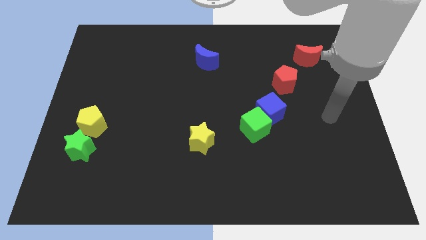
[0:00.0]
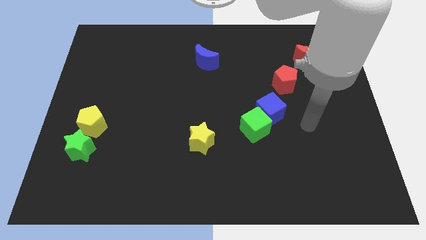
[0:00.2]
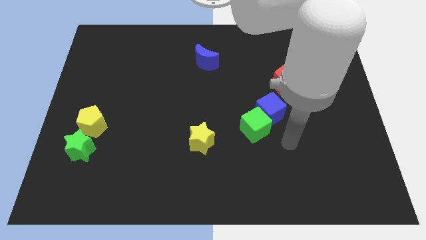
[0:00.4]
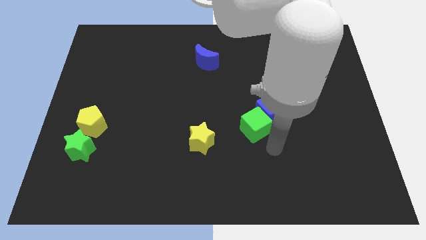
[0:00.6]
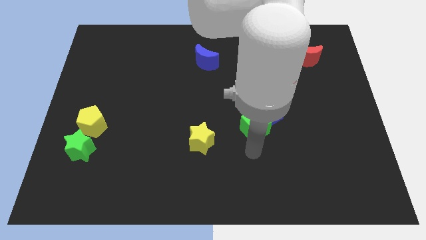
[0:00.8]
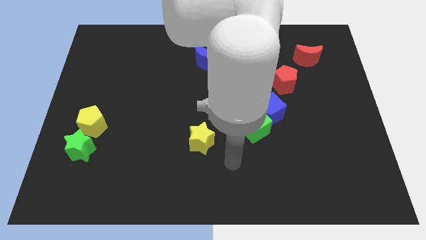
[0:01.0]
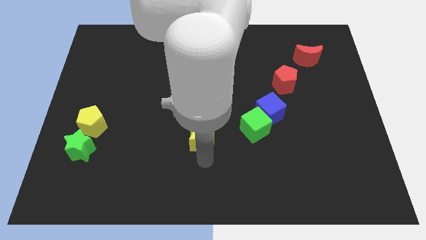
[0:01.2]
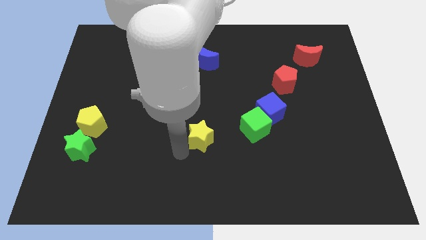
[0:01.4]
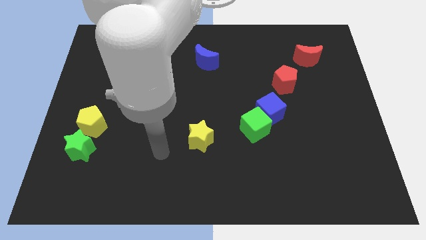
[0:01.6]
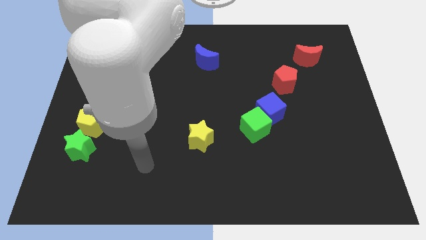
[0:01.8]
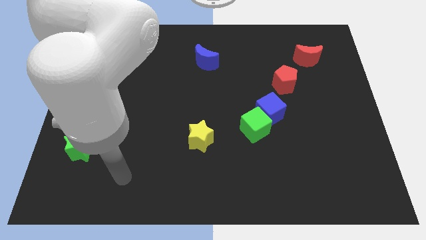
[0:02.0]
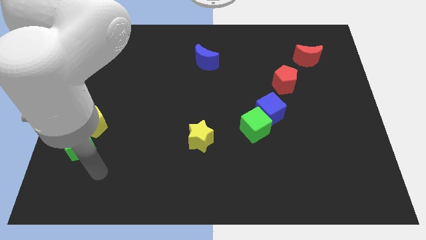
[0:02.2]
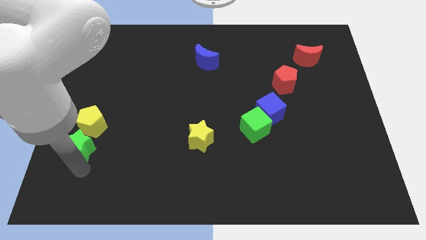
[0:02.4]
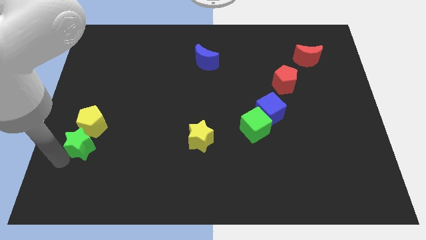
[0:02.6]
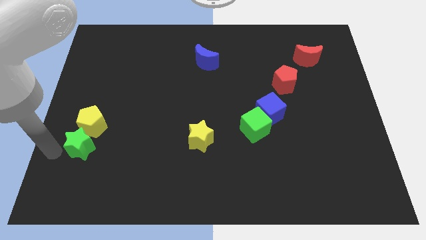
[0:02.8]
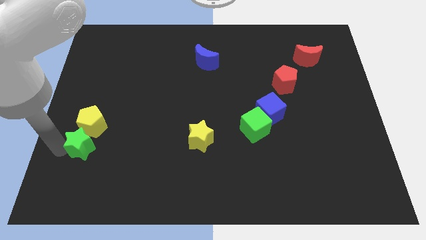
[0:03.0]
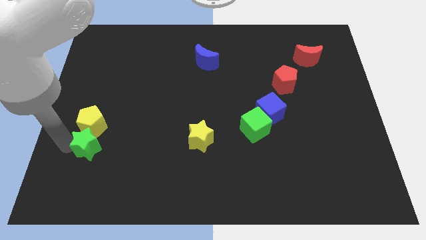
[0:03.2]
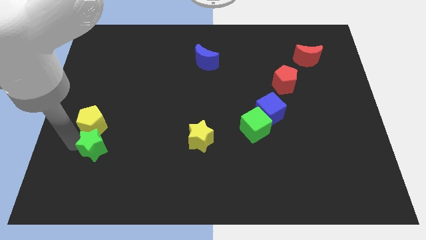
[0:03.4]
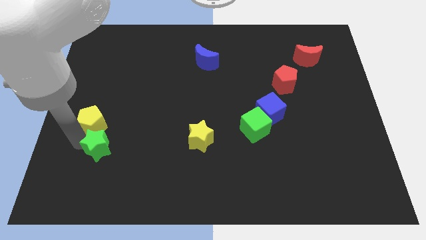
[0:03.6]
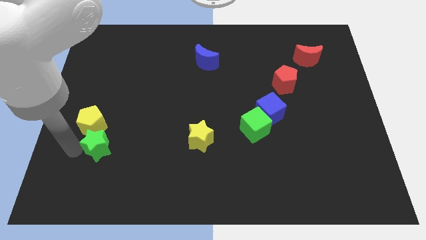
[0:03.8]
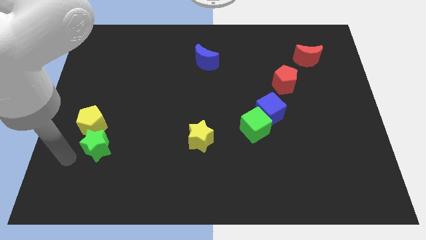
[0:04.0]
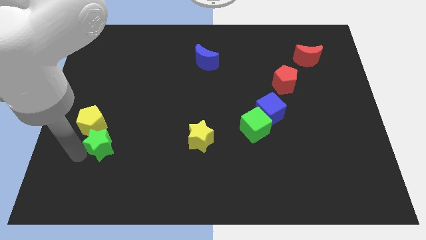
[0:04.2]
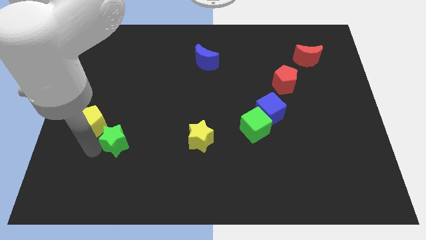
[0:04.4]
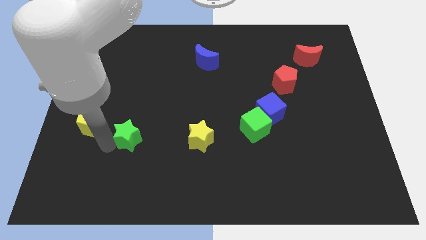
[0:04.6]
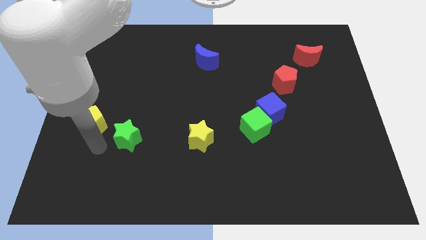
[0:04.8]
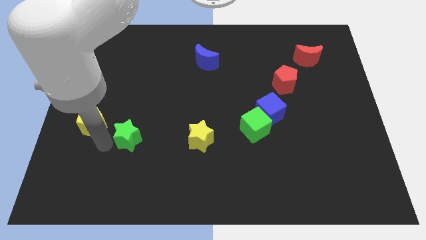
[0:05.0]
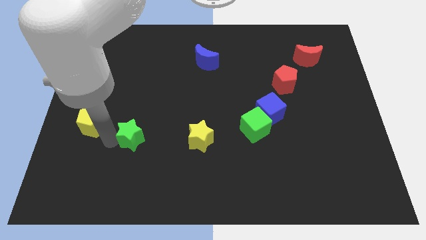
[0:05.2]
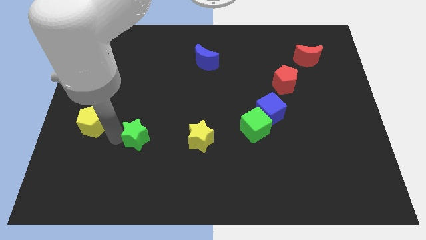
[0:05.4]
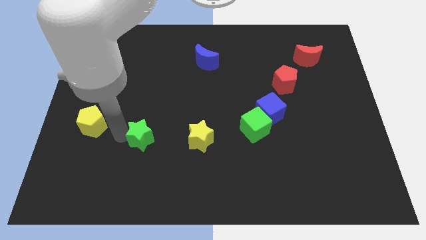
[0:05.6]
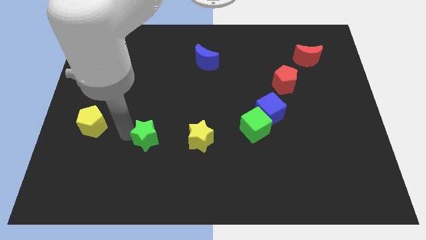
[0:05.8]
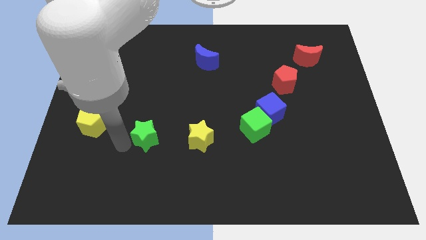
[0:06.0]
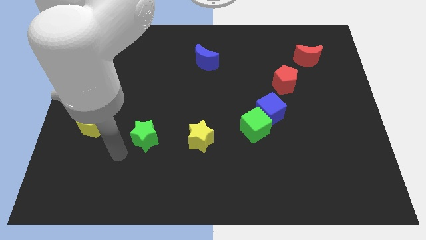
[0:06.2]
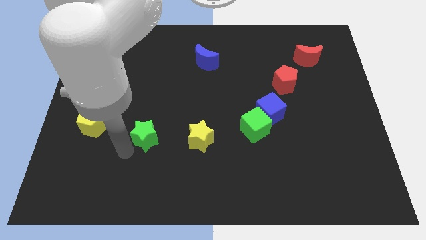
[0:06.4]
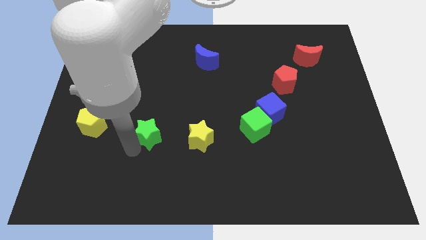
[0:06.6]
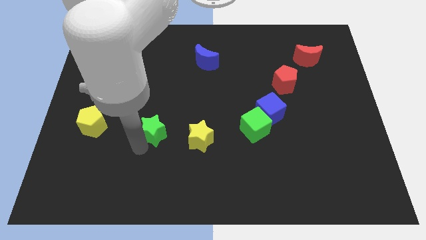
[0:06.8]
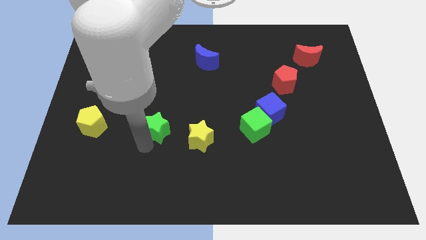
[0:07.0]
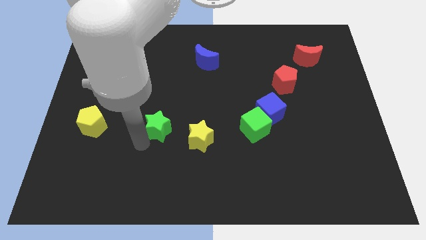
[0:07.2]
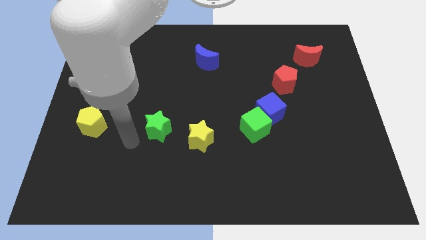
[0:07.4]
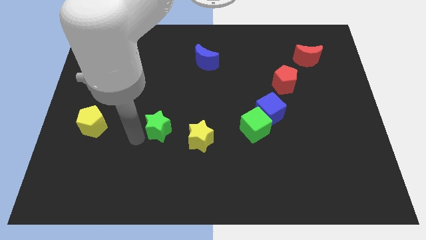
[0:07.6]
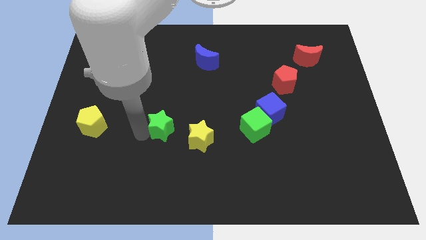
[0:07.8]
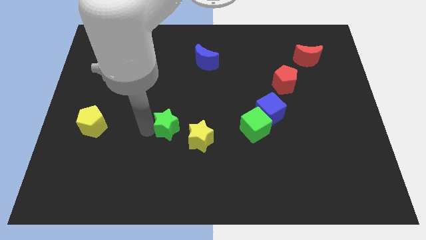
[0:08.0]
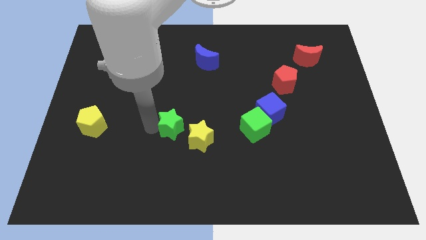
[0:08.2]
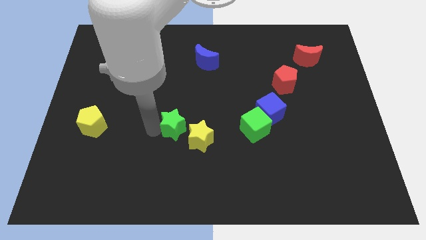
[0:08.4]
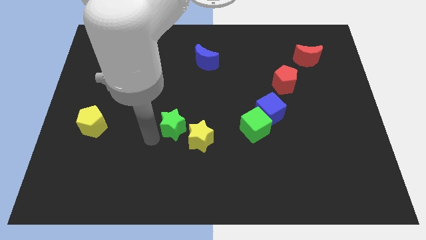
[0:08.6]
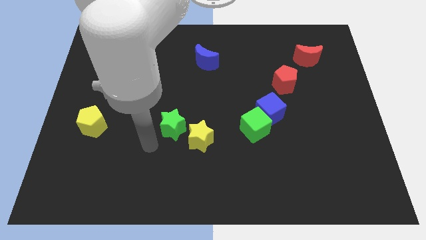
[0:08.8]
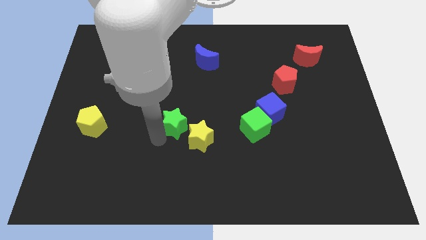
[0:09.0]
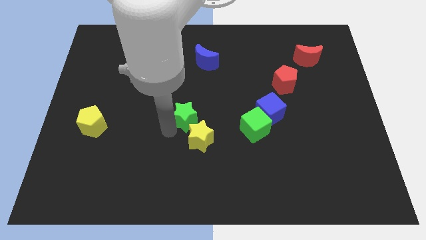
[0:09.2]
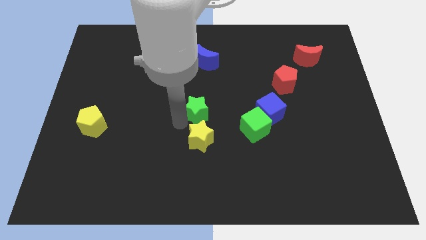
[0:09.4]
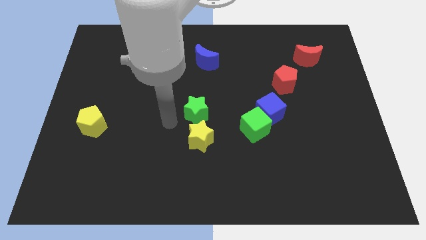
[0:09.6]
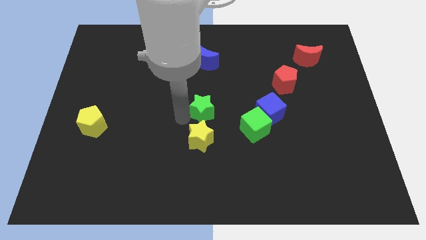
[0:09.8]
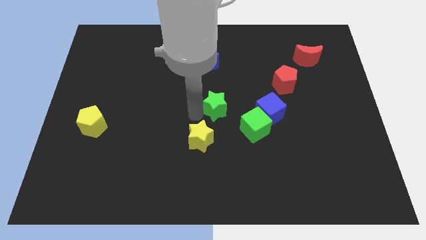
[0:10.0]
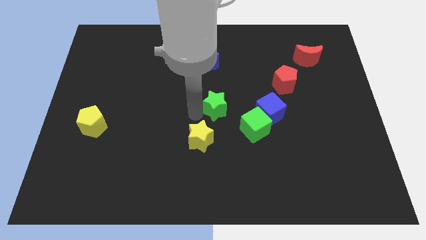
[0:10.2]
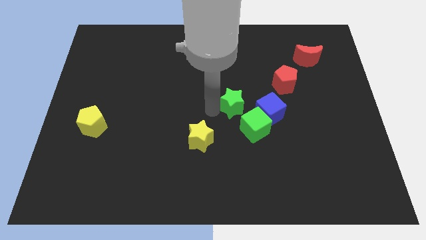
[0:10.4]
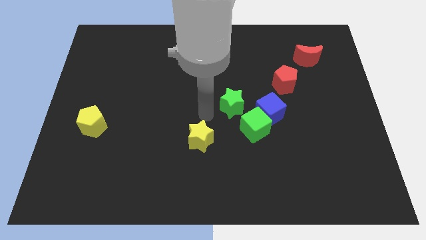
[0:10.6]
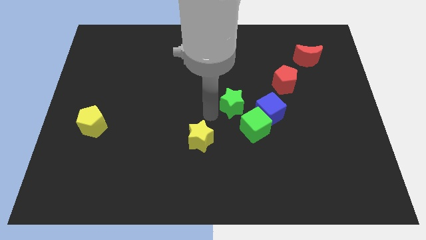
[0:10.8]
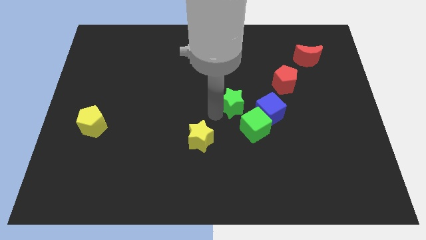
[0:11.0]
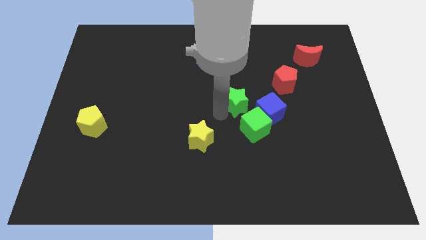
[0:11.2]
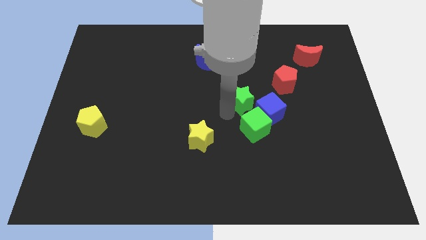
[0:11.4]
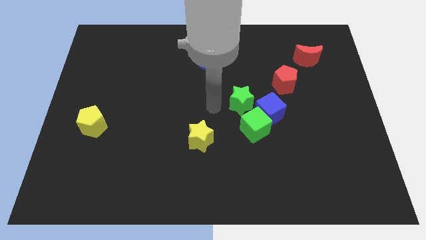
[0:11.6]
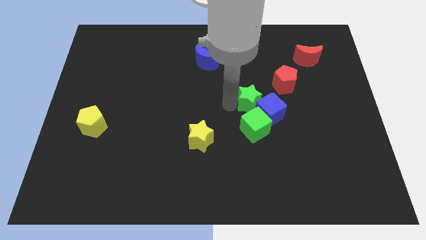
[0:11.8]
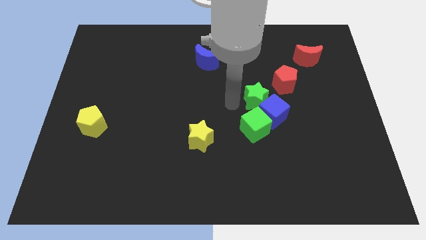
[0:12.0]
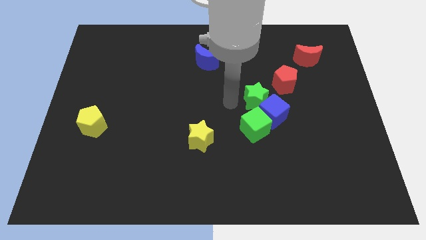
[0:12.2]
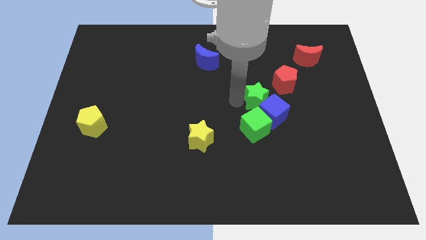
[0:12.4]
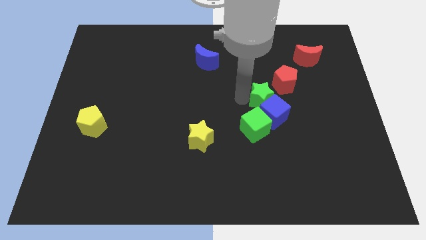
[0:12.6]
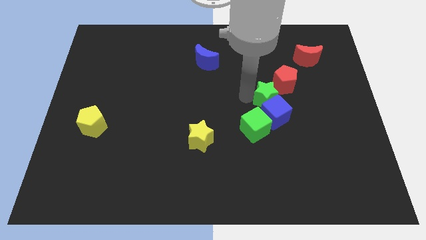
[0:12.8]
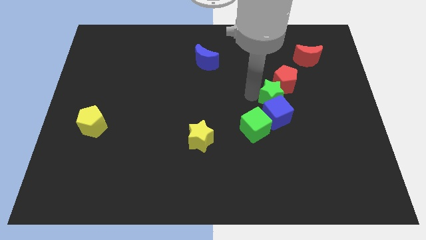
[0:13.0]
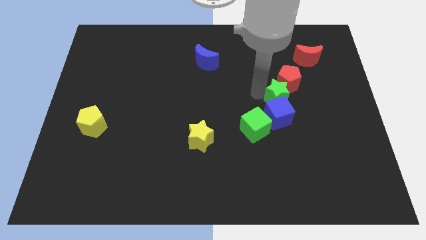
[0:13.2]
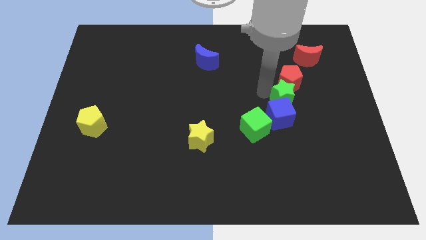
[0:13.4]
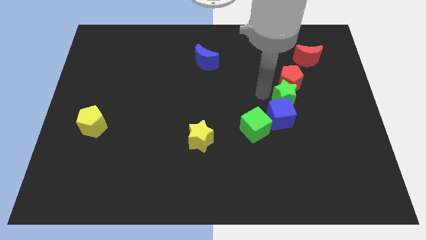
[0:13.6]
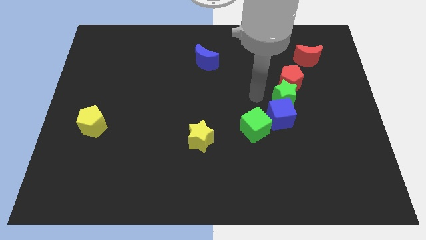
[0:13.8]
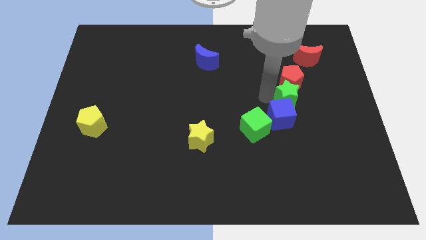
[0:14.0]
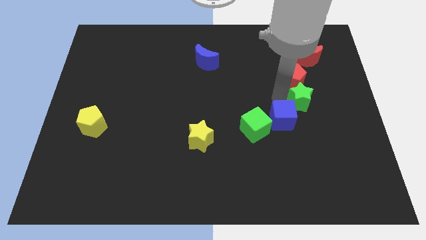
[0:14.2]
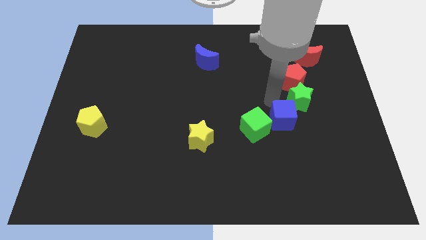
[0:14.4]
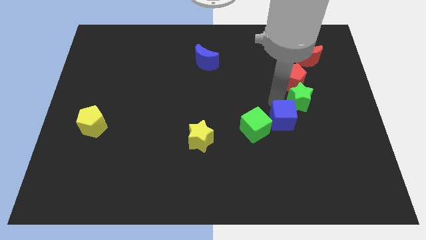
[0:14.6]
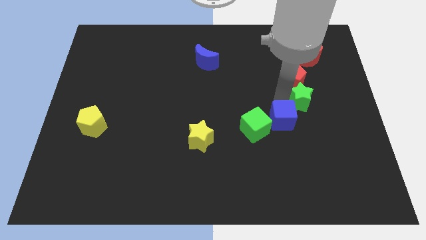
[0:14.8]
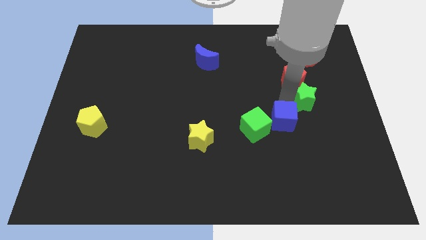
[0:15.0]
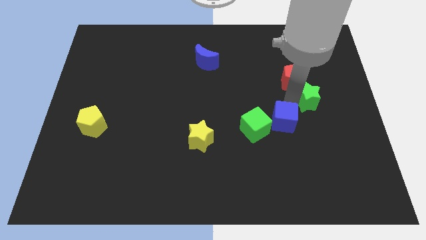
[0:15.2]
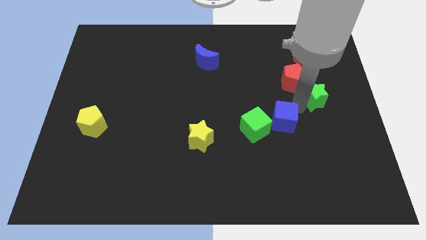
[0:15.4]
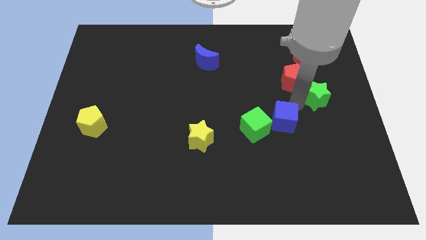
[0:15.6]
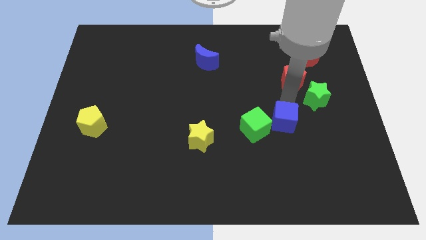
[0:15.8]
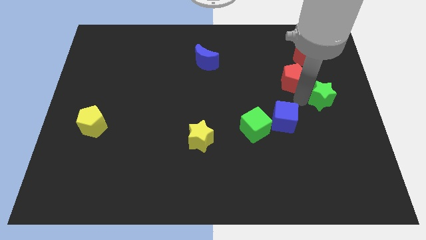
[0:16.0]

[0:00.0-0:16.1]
move the green star to the center right
